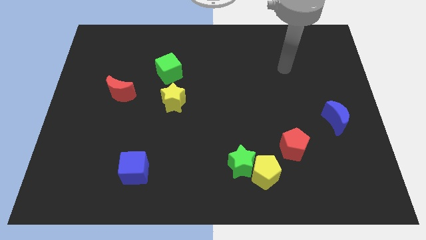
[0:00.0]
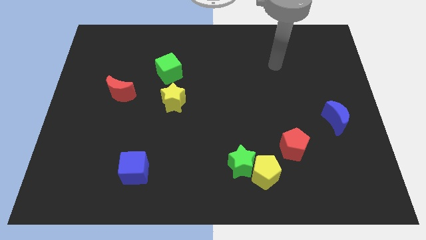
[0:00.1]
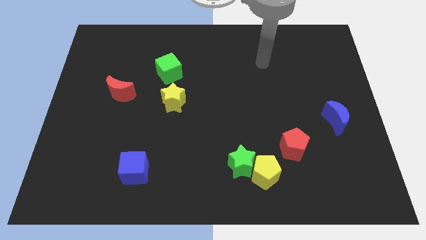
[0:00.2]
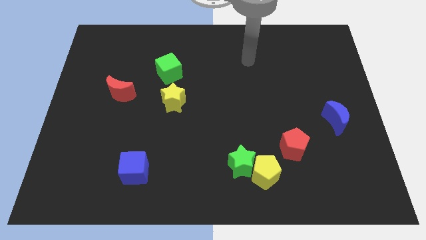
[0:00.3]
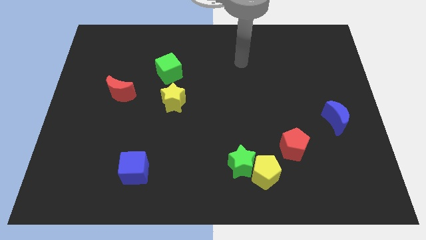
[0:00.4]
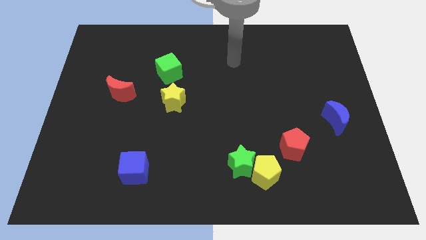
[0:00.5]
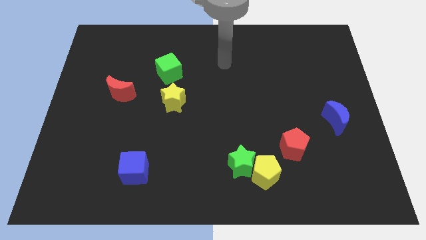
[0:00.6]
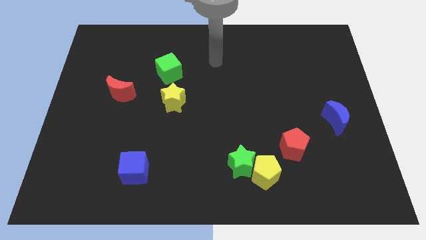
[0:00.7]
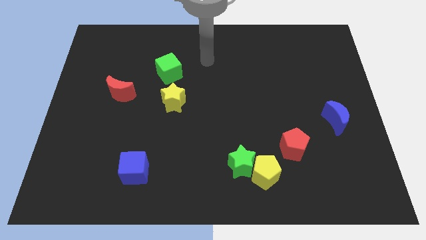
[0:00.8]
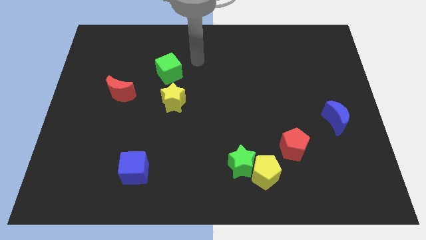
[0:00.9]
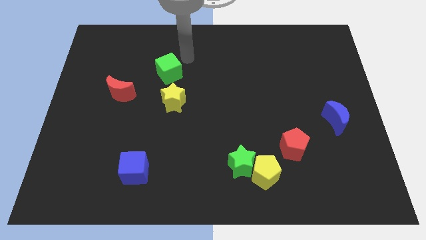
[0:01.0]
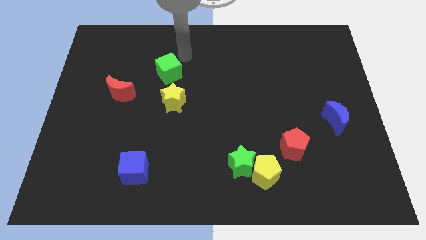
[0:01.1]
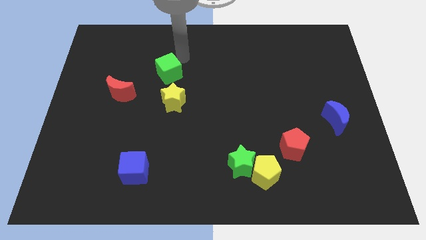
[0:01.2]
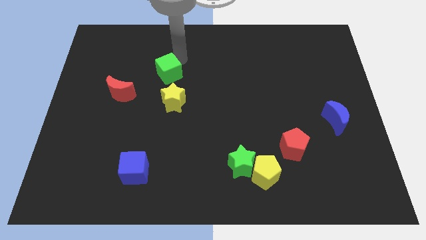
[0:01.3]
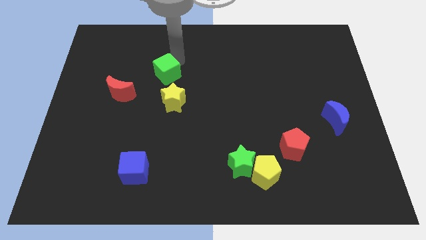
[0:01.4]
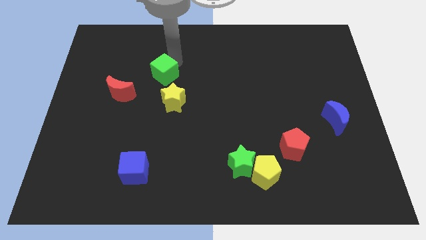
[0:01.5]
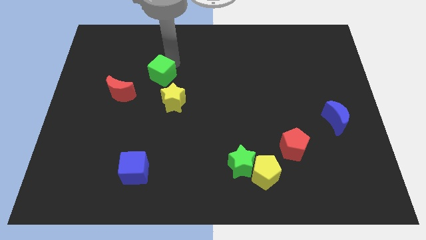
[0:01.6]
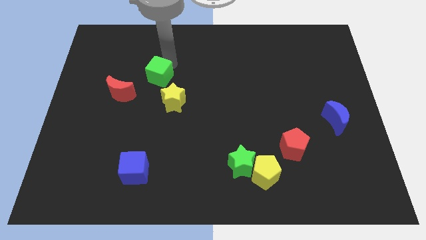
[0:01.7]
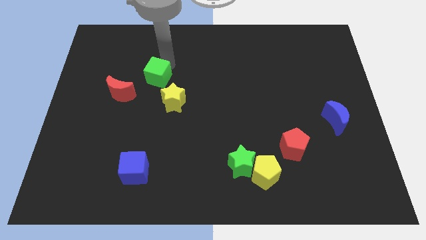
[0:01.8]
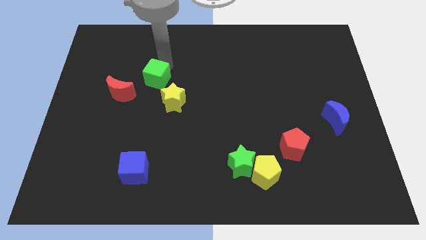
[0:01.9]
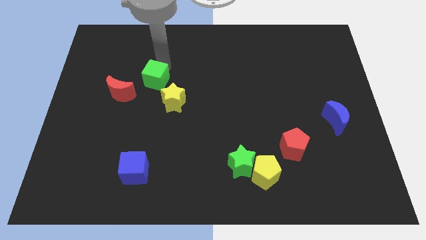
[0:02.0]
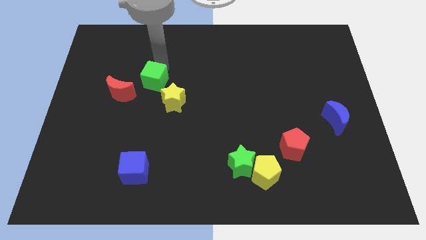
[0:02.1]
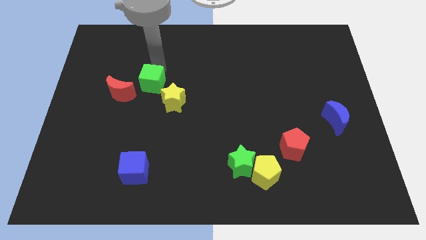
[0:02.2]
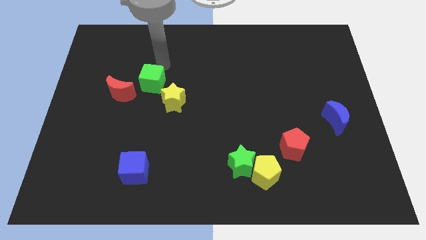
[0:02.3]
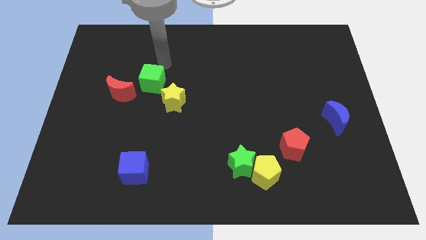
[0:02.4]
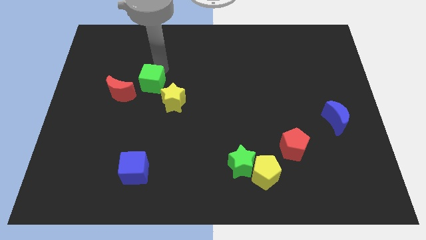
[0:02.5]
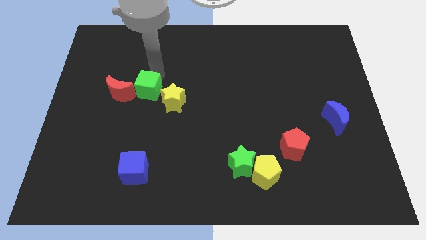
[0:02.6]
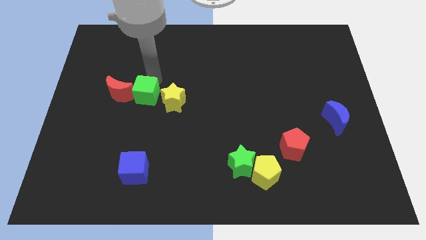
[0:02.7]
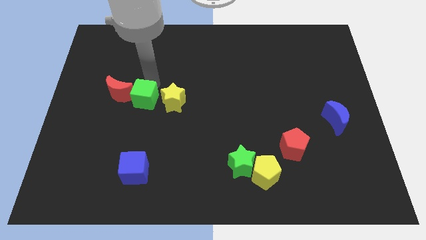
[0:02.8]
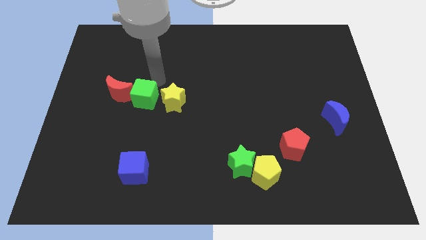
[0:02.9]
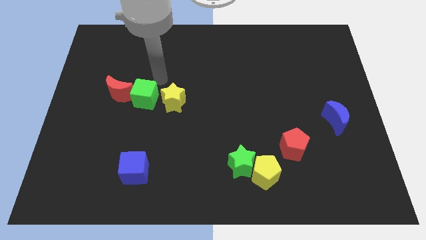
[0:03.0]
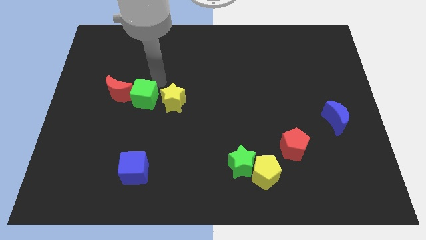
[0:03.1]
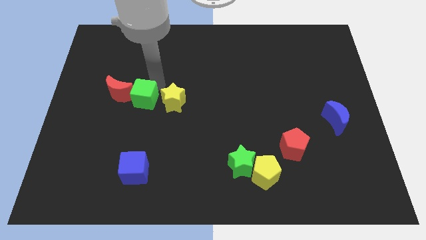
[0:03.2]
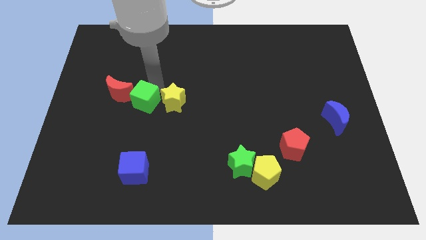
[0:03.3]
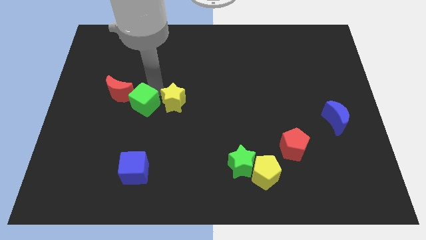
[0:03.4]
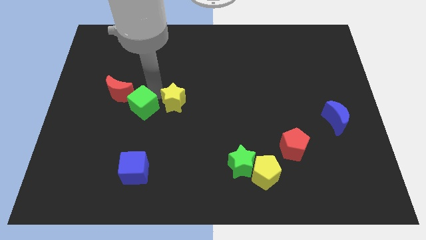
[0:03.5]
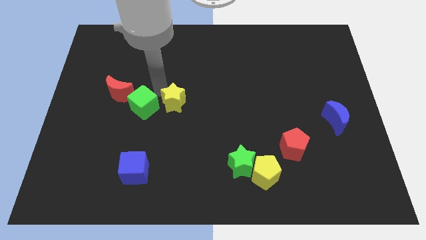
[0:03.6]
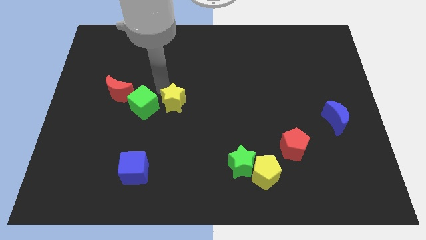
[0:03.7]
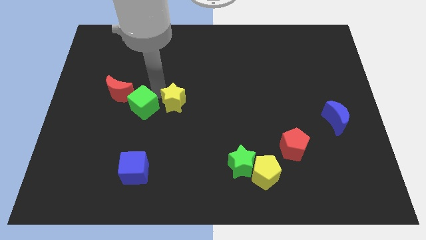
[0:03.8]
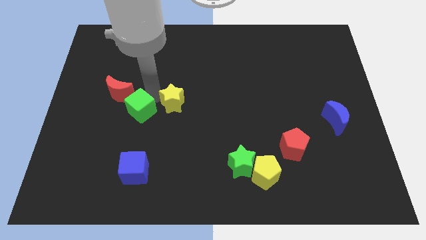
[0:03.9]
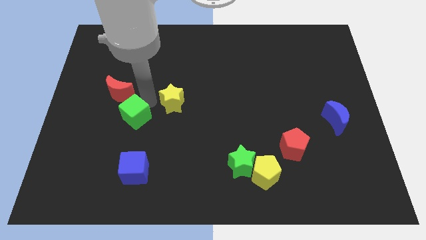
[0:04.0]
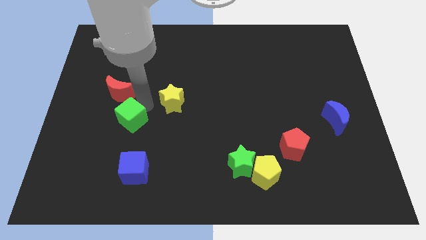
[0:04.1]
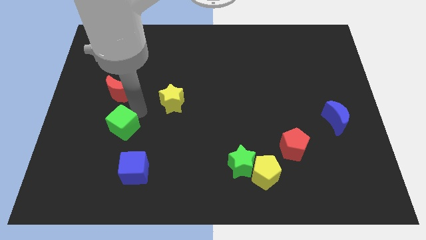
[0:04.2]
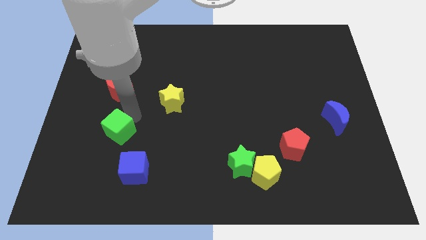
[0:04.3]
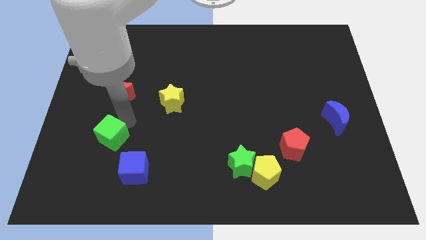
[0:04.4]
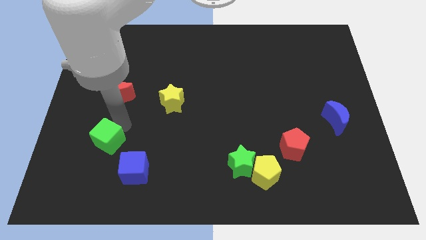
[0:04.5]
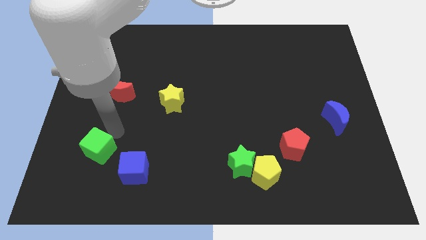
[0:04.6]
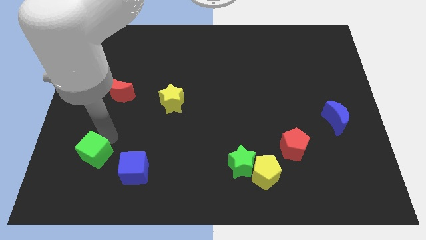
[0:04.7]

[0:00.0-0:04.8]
put the green cube to the left side of the blue cube

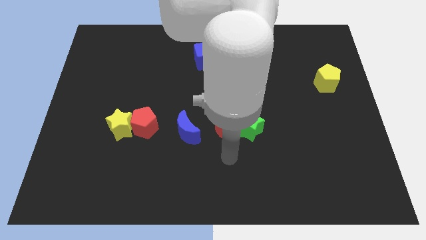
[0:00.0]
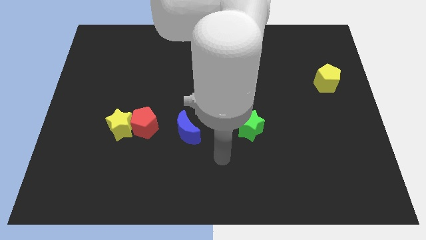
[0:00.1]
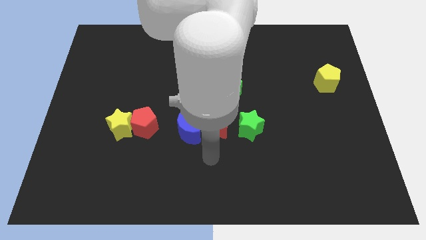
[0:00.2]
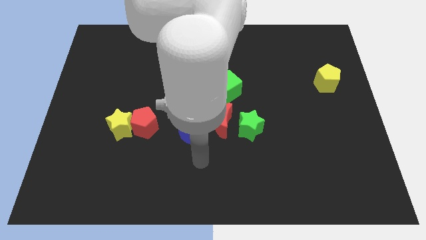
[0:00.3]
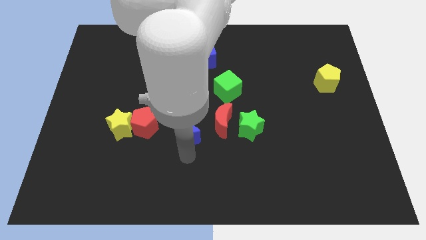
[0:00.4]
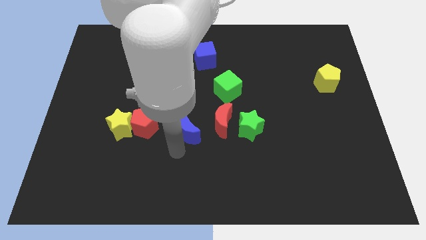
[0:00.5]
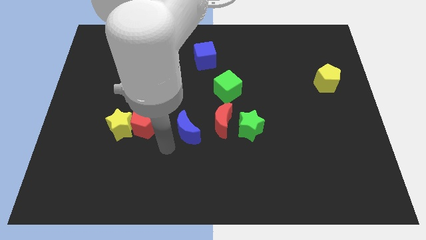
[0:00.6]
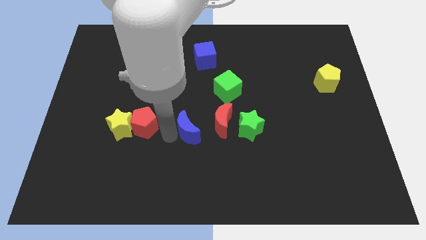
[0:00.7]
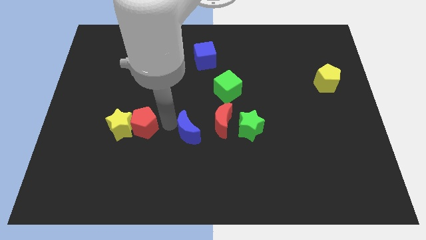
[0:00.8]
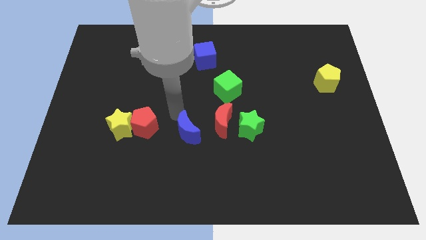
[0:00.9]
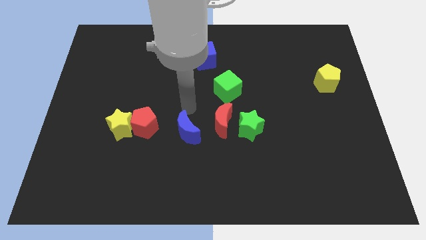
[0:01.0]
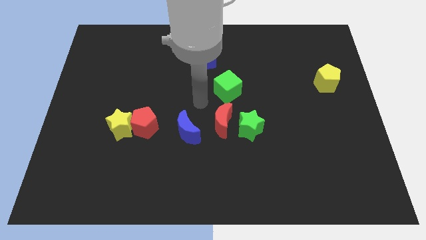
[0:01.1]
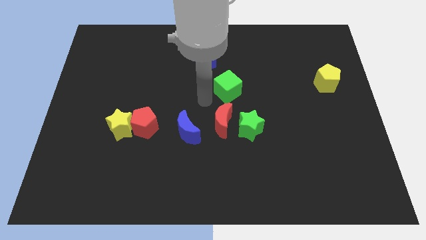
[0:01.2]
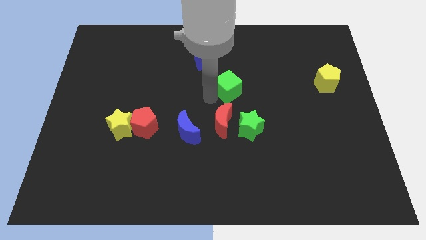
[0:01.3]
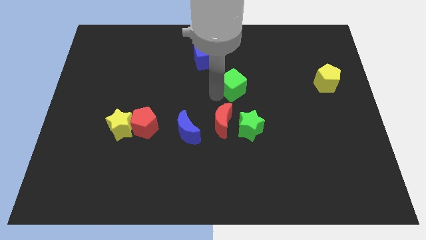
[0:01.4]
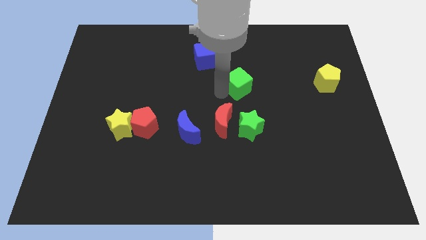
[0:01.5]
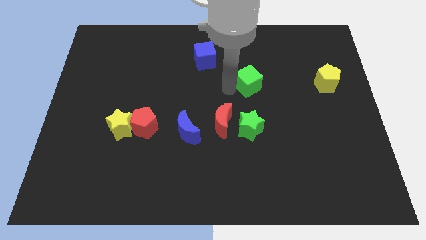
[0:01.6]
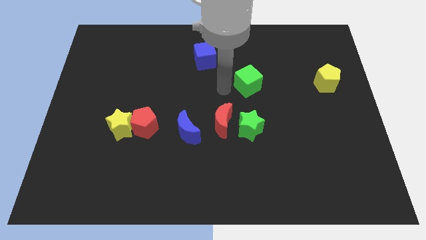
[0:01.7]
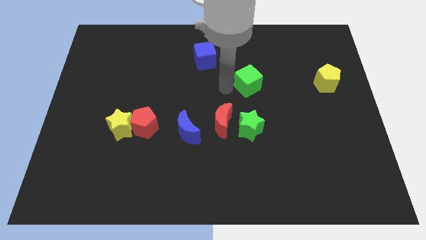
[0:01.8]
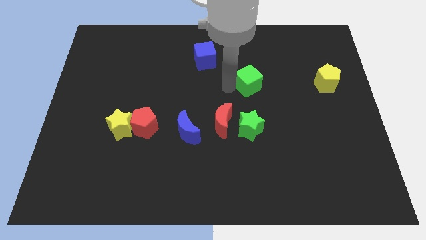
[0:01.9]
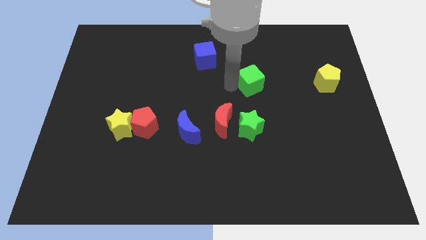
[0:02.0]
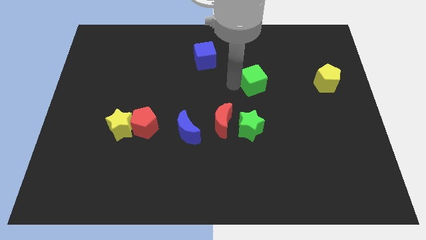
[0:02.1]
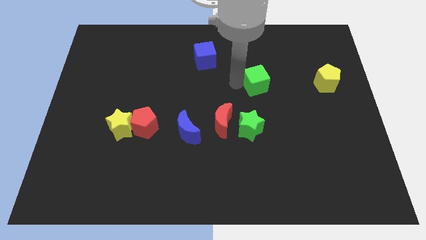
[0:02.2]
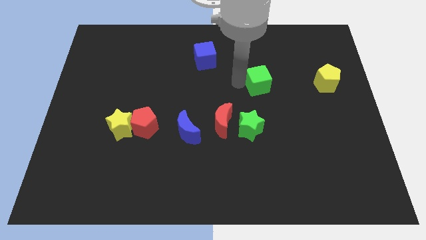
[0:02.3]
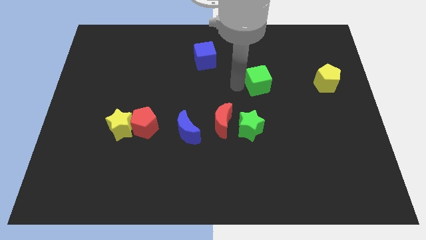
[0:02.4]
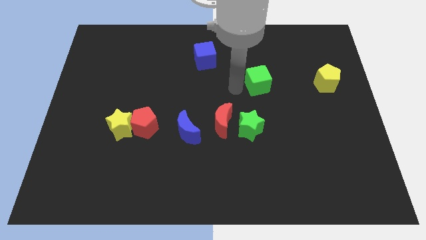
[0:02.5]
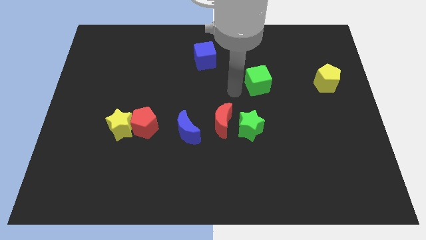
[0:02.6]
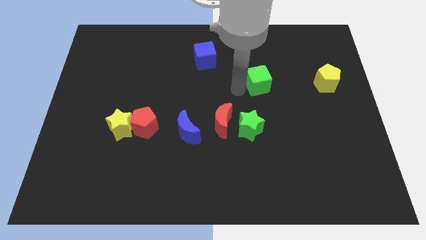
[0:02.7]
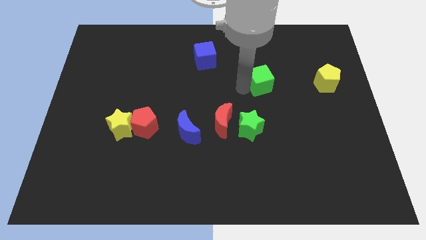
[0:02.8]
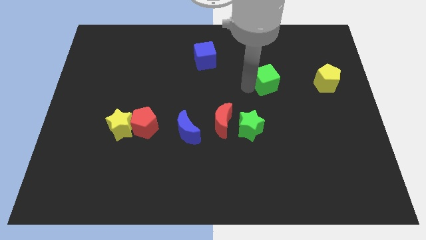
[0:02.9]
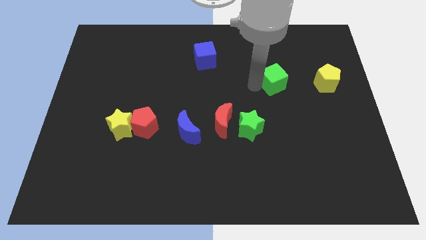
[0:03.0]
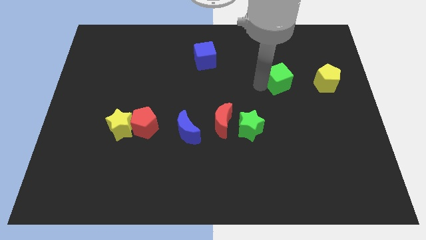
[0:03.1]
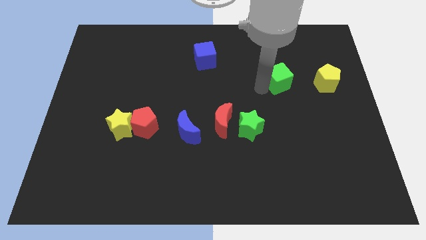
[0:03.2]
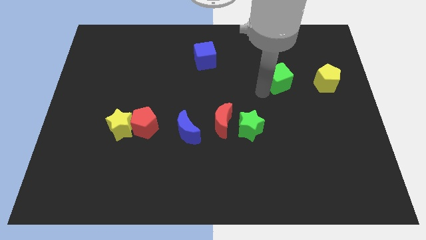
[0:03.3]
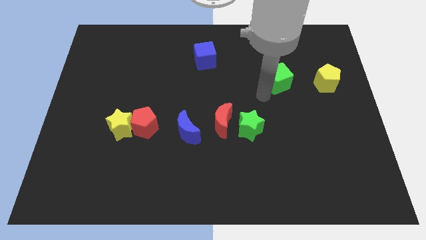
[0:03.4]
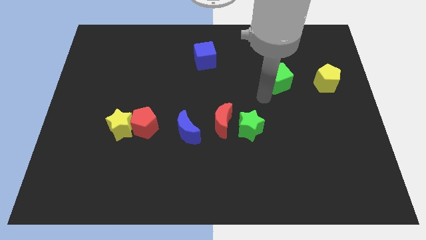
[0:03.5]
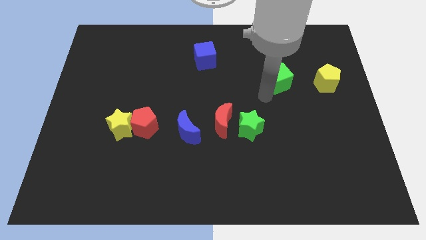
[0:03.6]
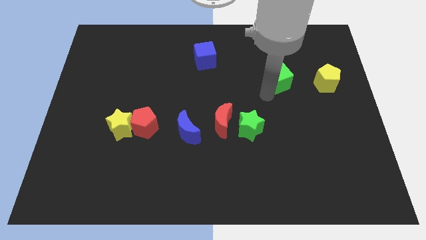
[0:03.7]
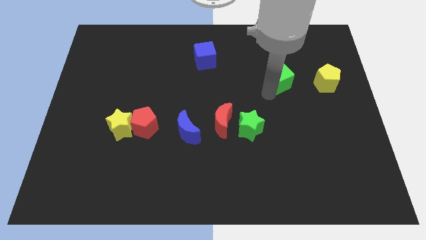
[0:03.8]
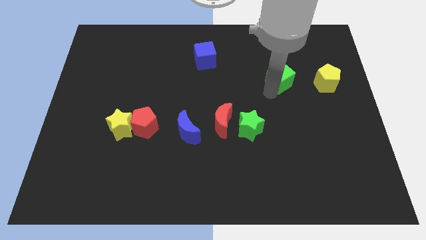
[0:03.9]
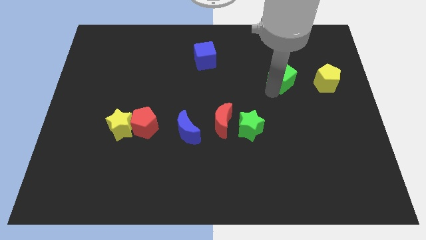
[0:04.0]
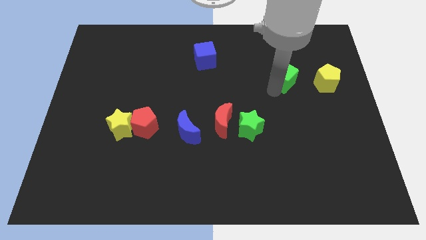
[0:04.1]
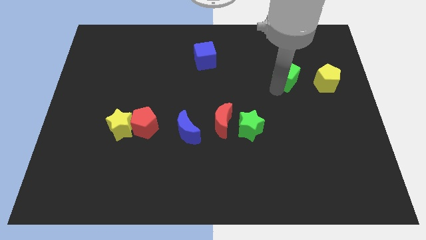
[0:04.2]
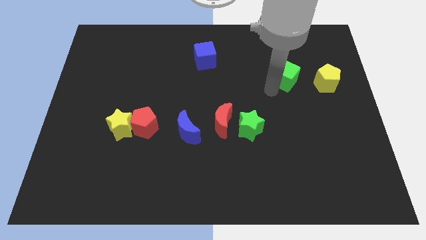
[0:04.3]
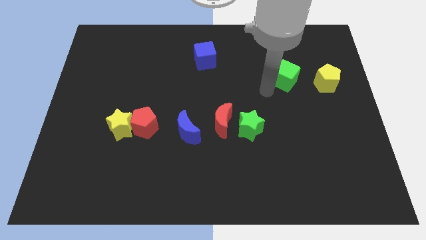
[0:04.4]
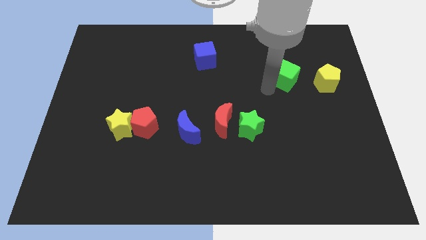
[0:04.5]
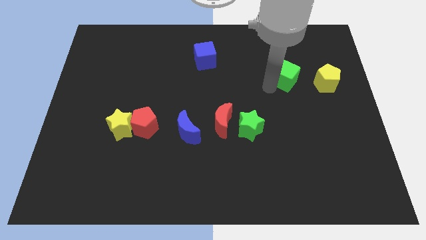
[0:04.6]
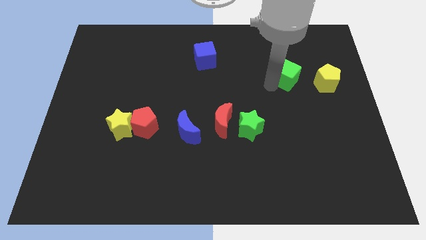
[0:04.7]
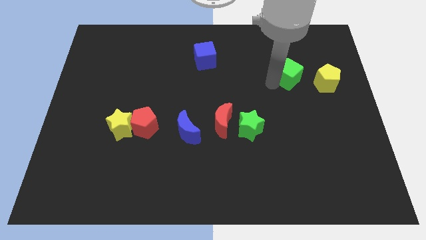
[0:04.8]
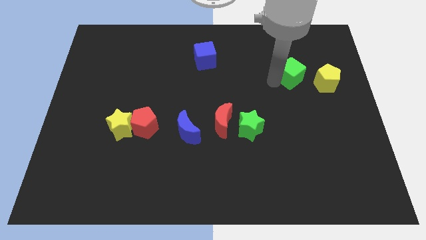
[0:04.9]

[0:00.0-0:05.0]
slide the green cube to the top left of the yellow pentagon
